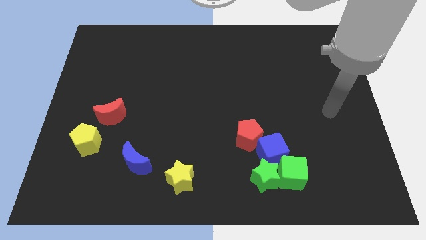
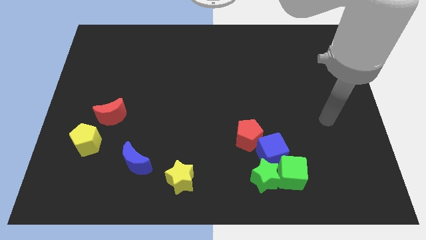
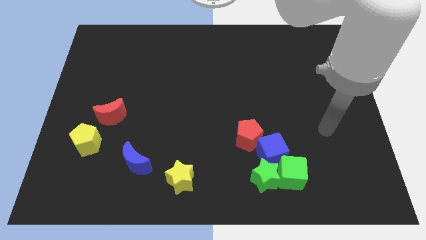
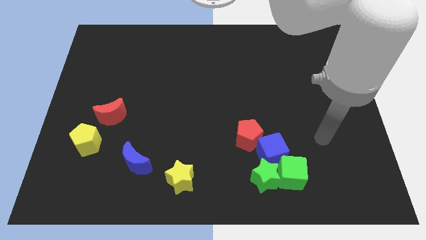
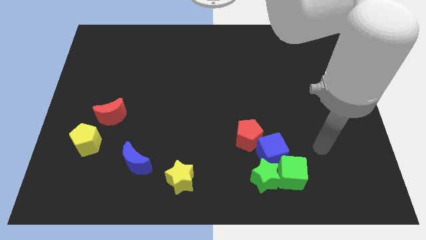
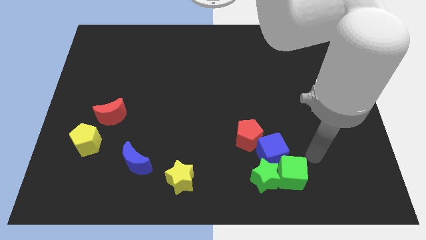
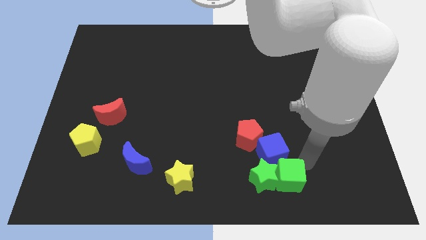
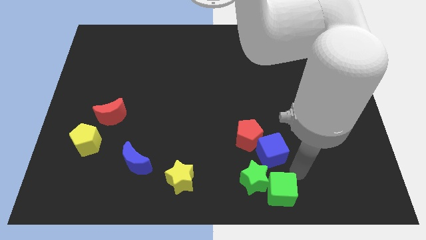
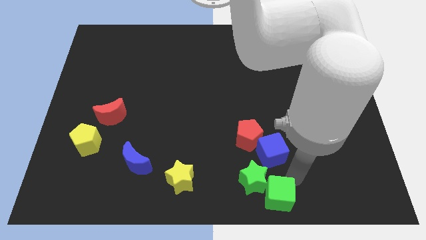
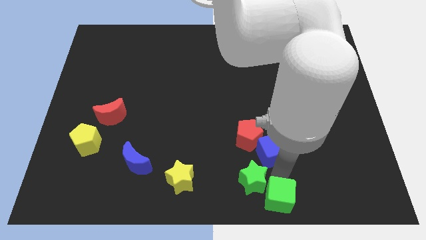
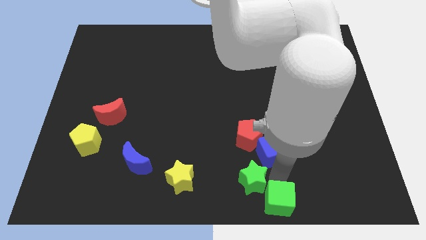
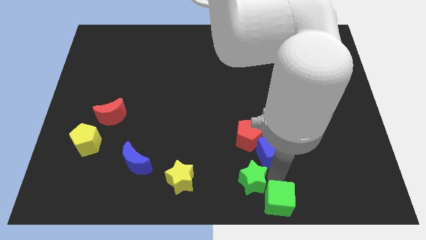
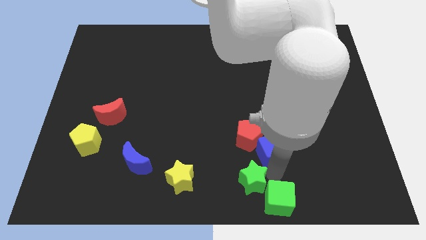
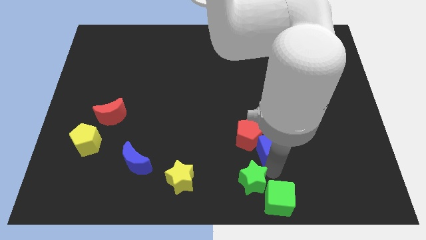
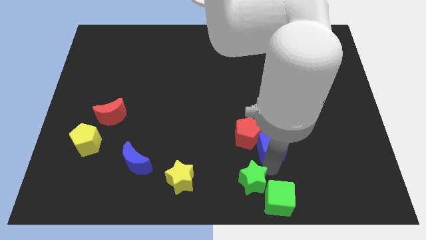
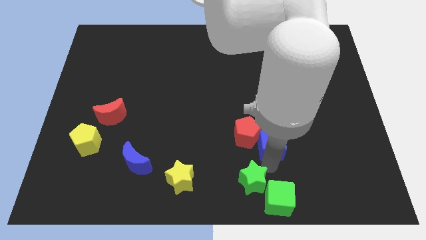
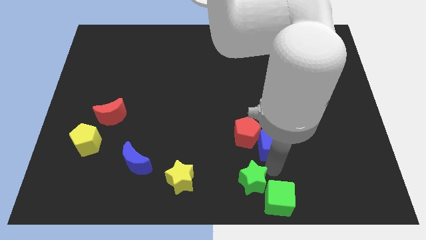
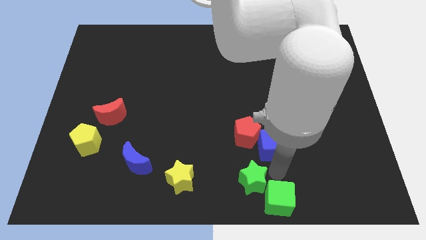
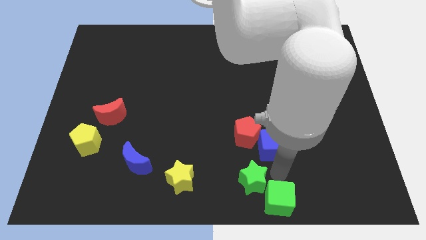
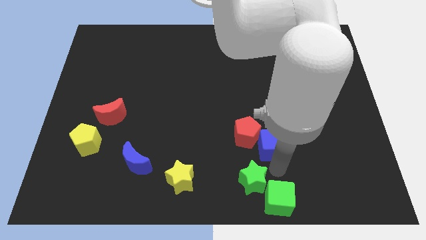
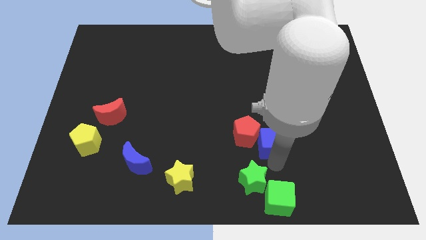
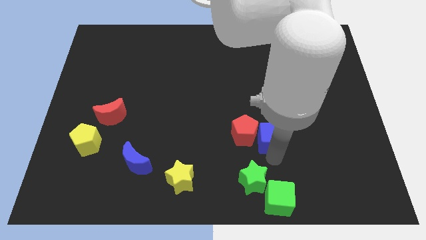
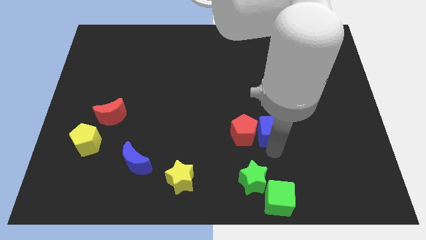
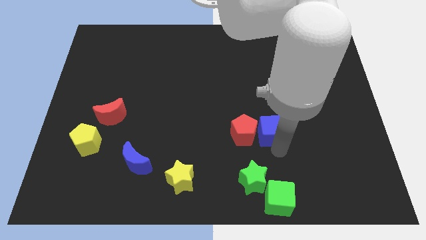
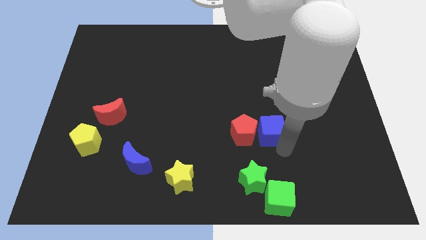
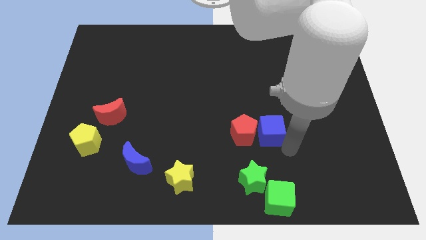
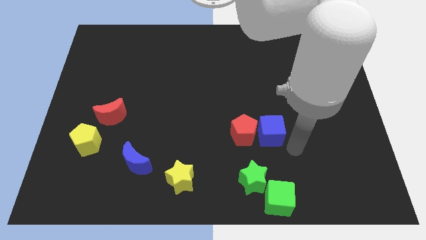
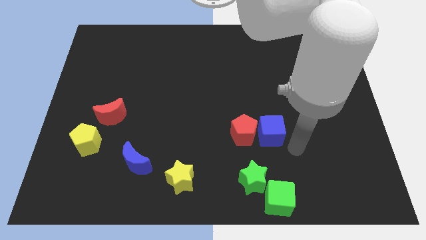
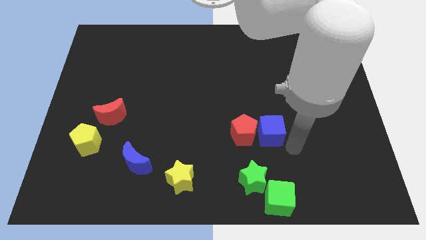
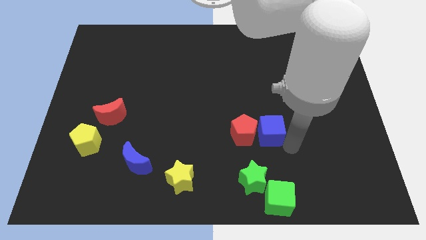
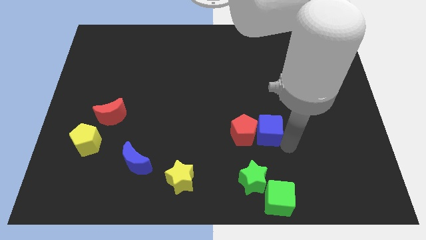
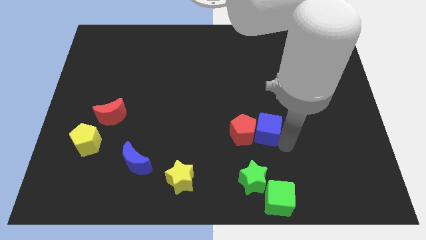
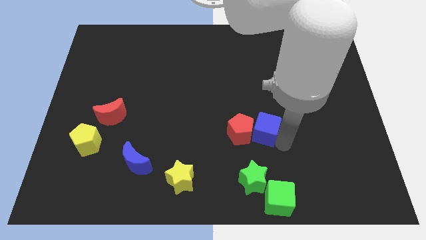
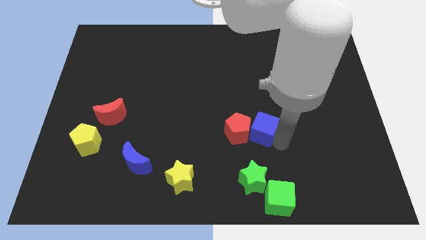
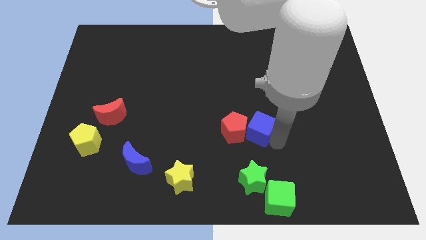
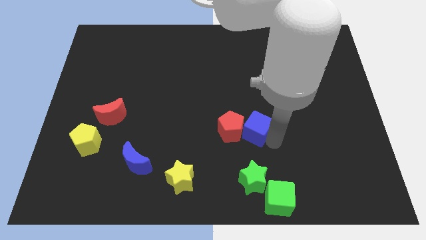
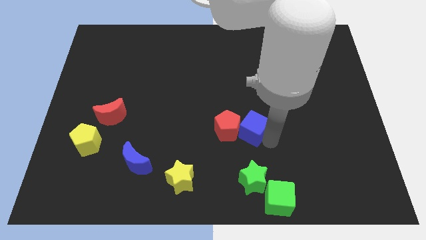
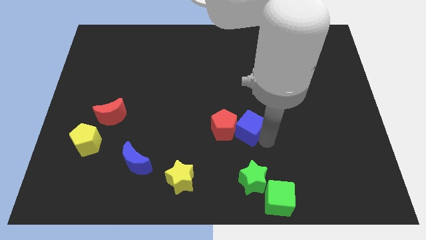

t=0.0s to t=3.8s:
slightly push the blue cube up and left

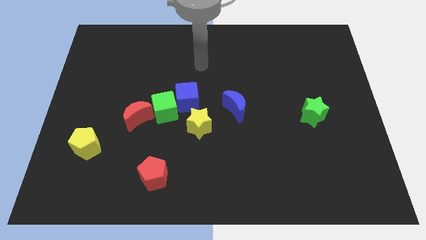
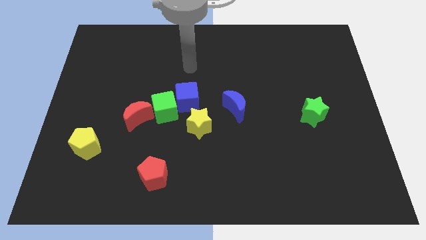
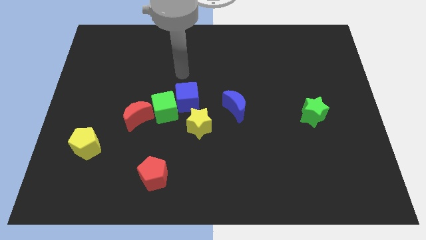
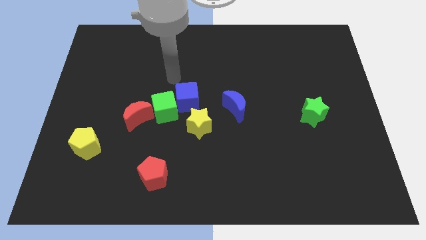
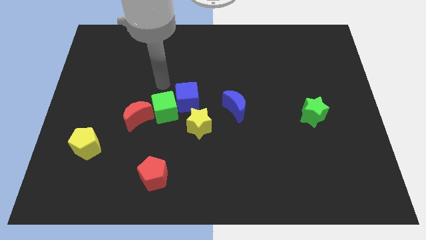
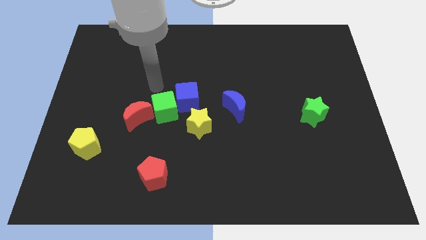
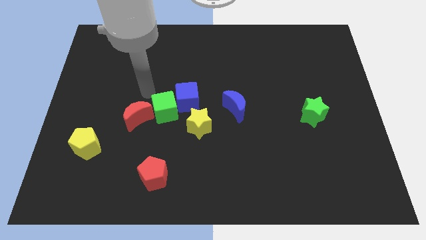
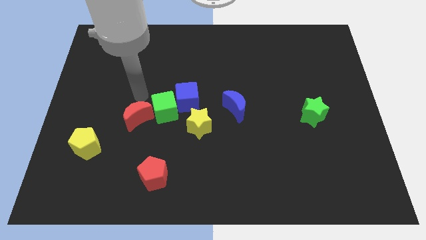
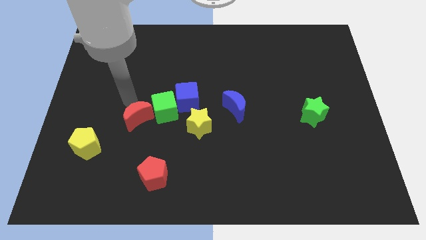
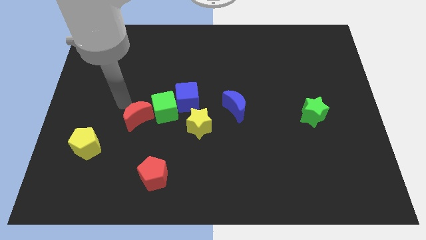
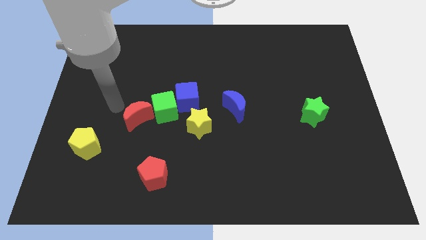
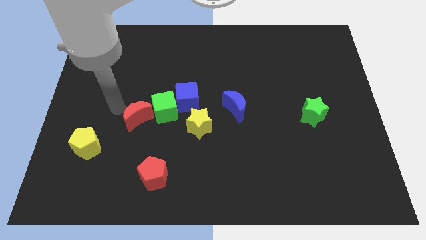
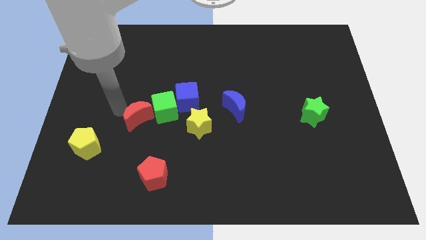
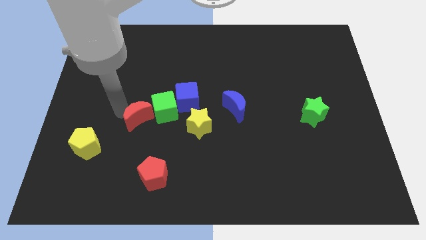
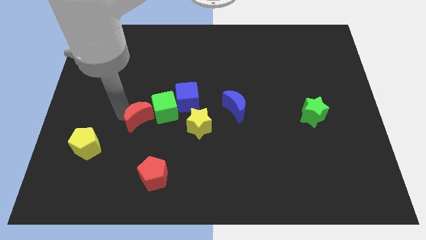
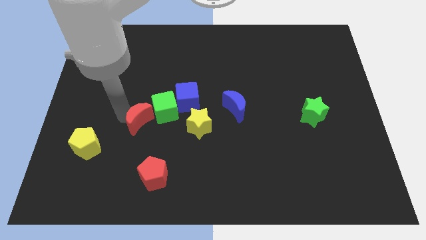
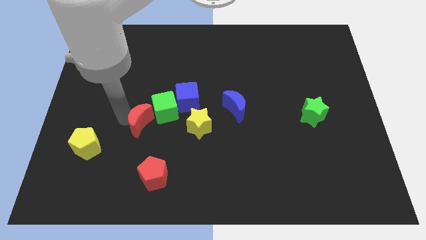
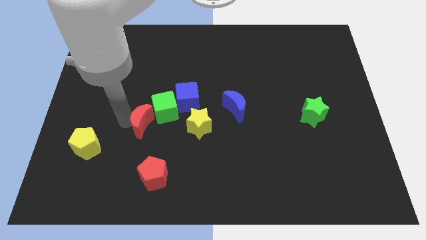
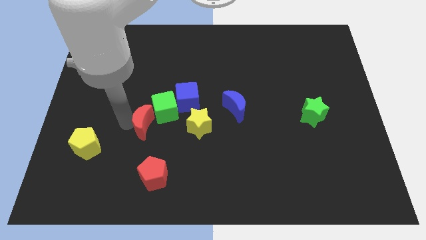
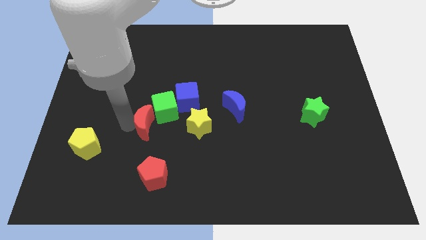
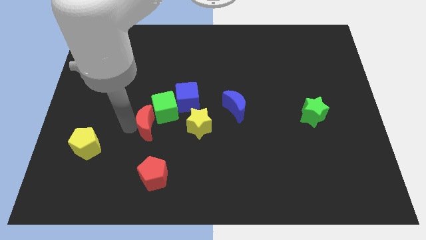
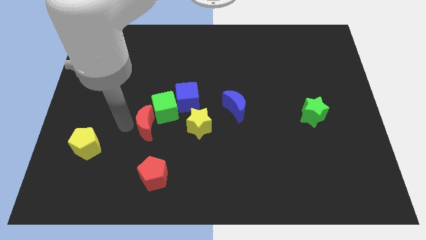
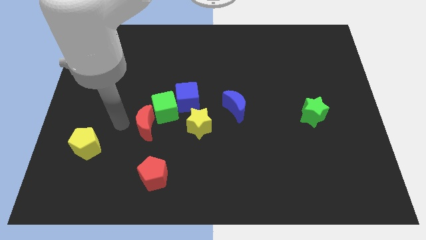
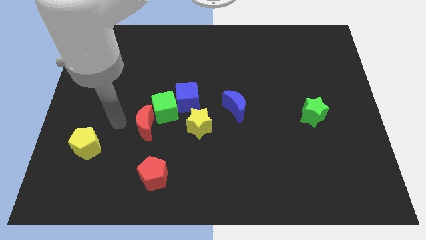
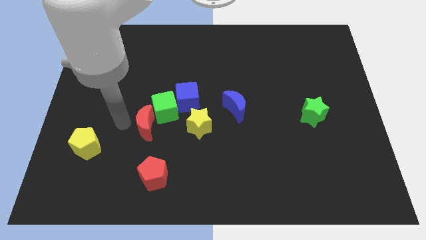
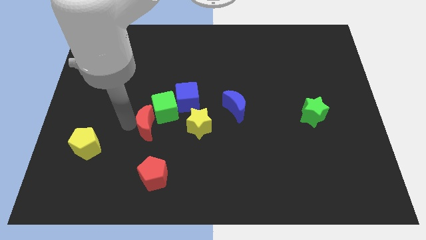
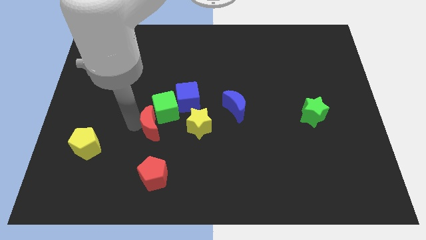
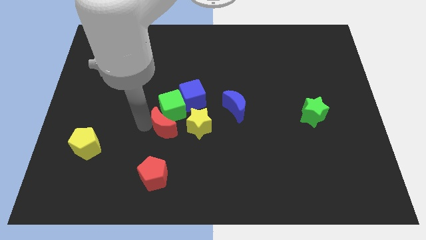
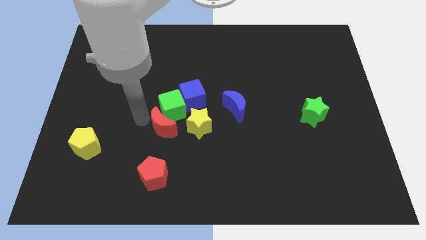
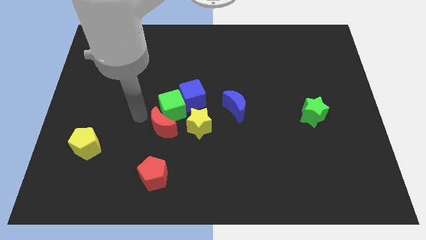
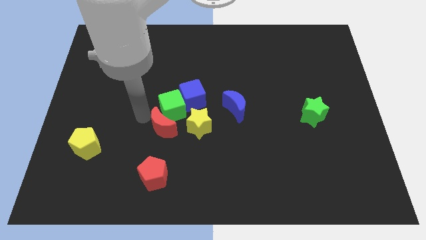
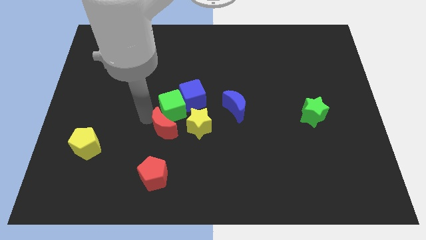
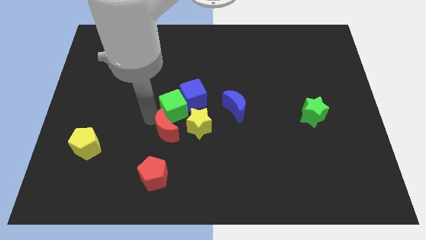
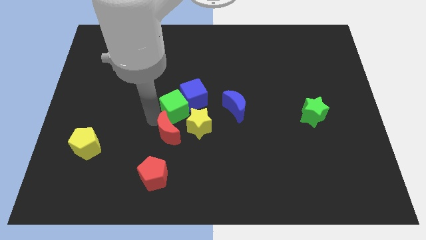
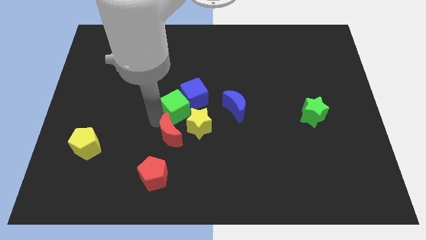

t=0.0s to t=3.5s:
move the red moon to the right a bit

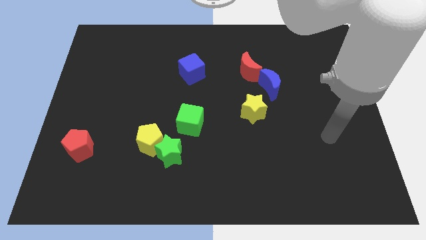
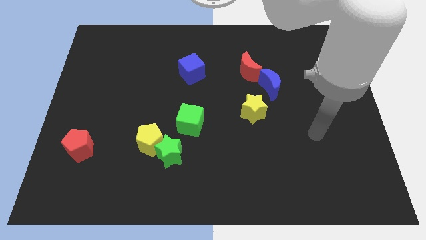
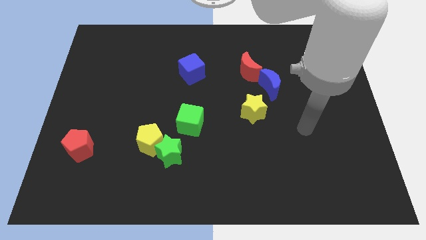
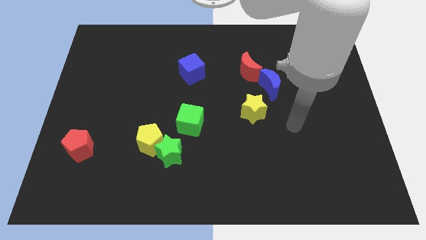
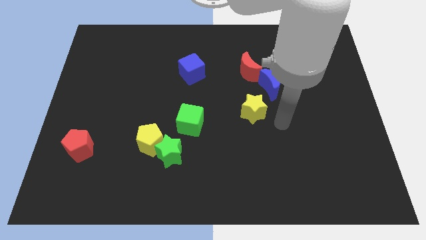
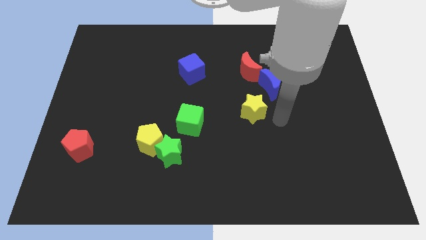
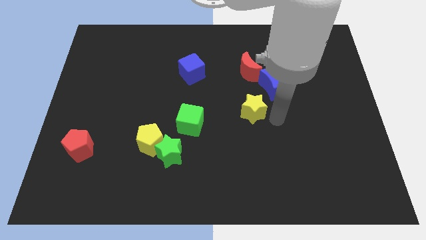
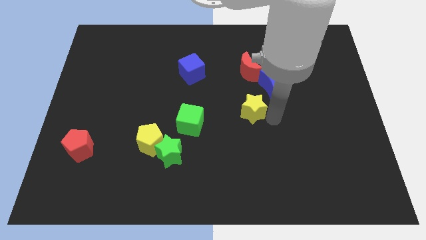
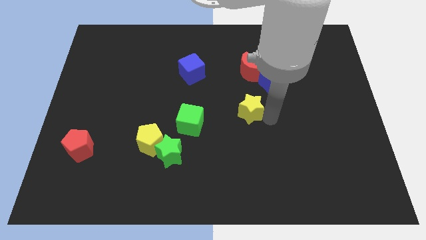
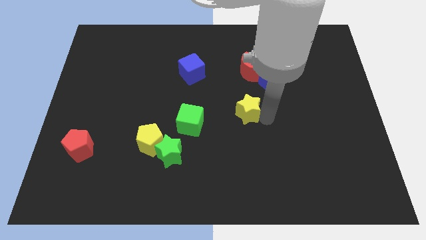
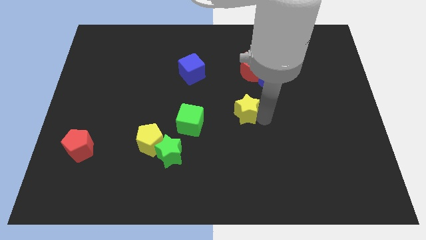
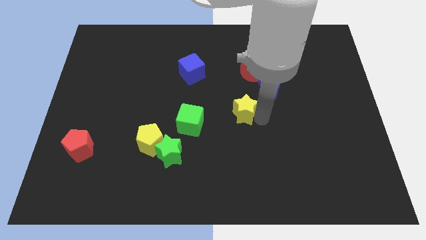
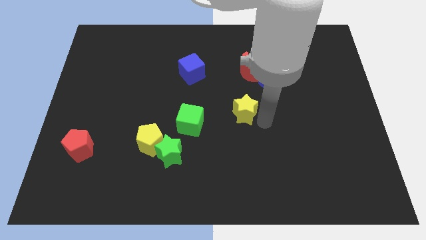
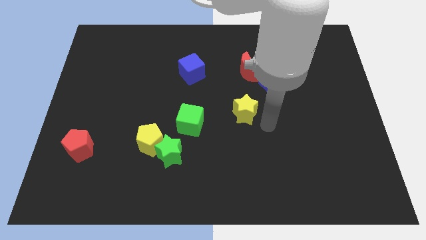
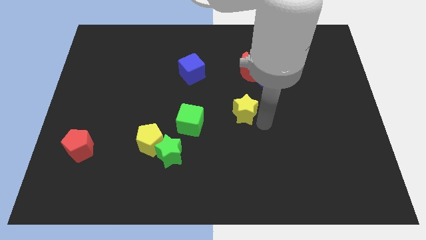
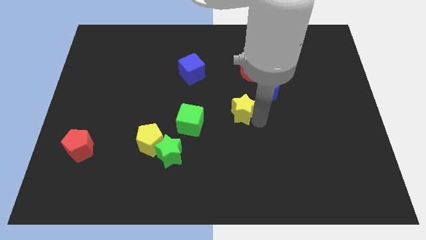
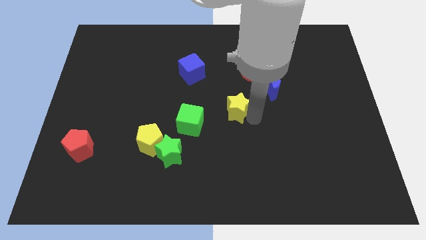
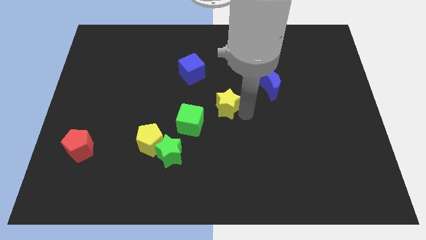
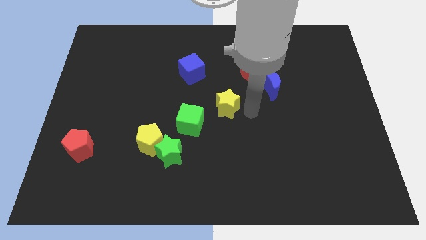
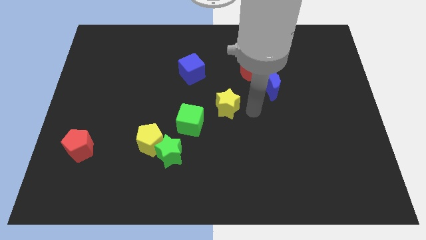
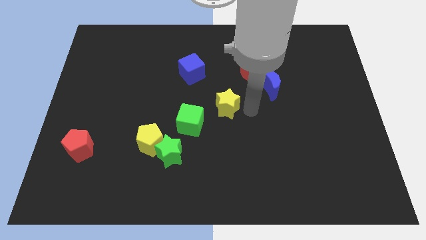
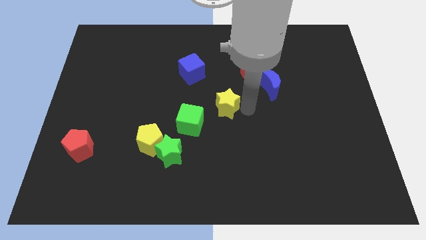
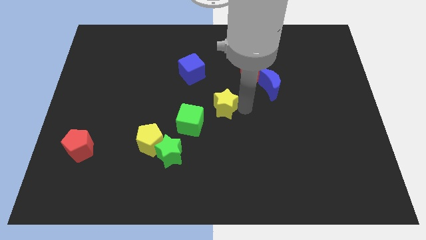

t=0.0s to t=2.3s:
slide the yellow star to the left slightly
